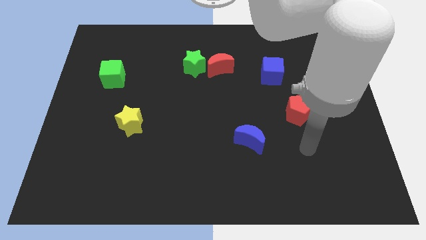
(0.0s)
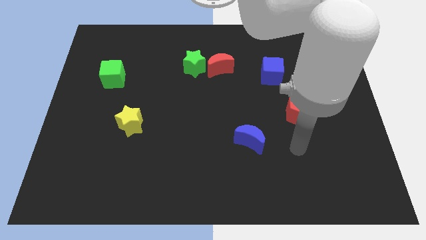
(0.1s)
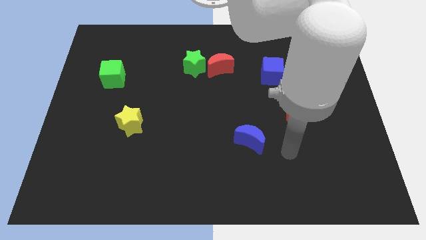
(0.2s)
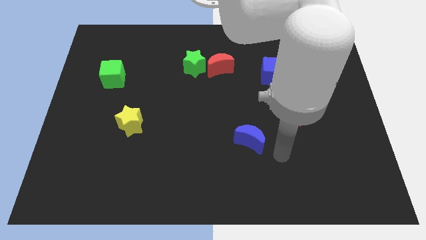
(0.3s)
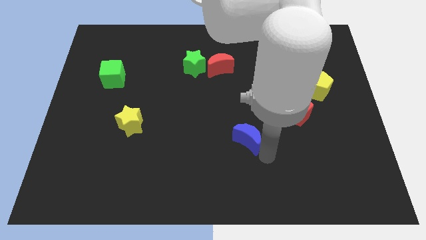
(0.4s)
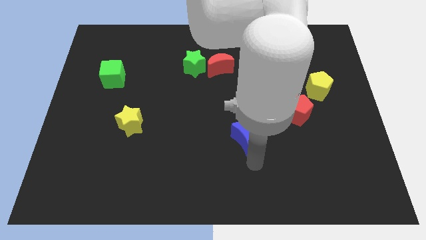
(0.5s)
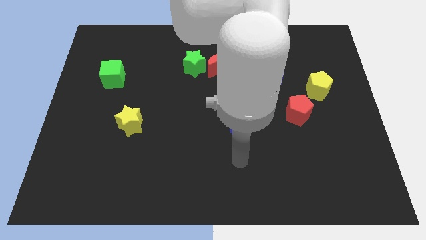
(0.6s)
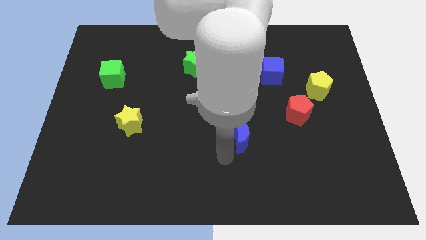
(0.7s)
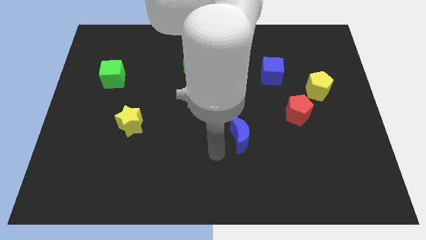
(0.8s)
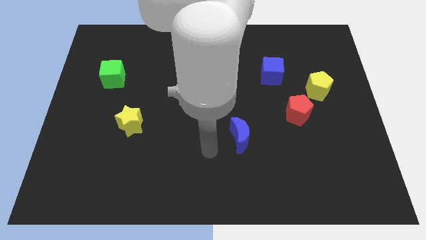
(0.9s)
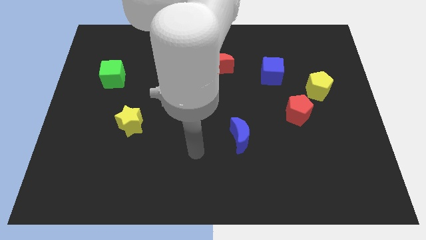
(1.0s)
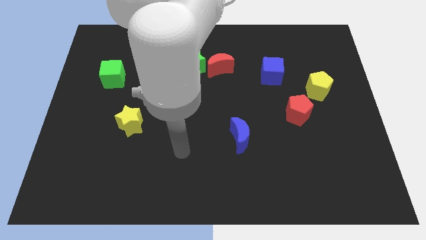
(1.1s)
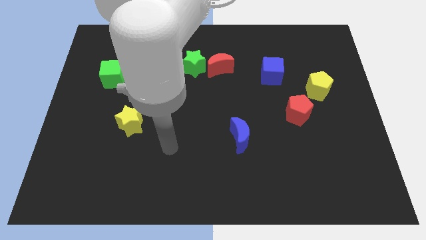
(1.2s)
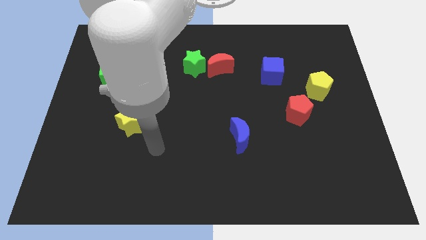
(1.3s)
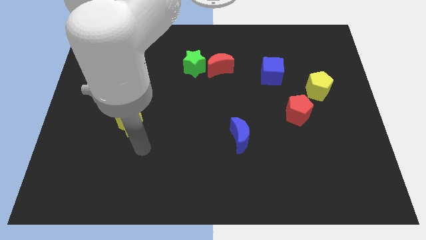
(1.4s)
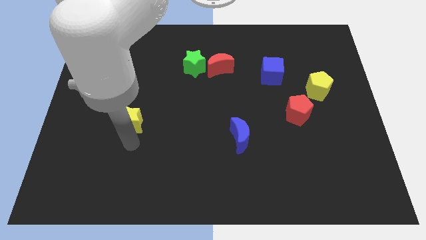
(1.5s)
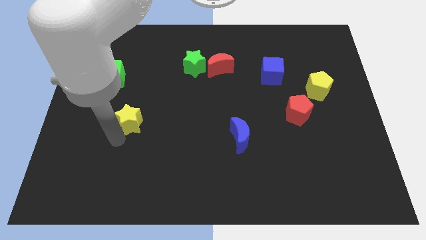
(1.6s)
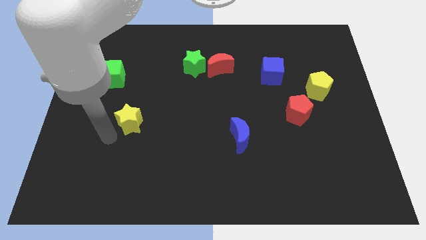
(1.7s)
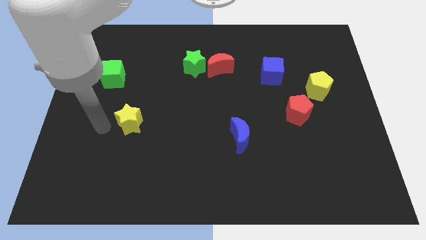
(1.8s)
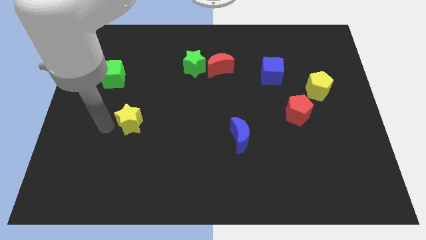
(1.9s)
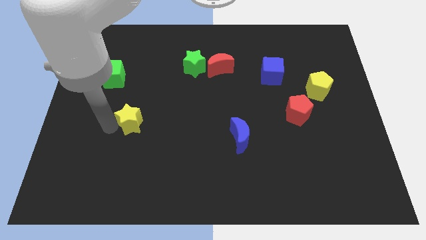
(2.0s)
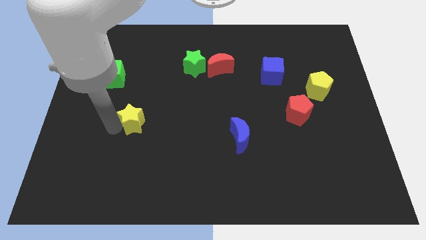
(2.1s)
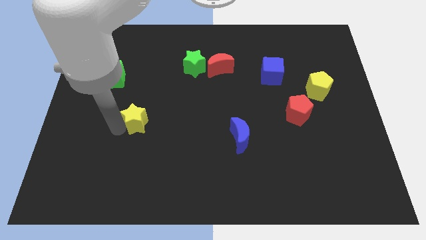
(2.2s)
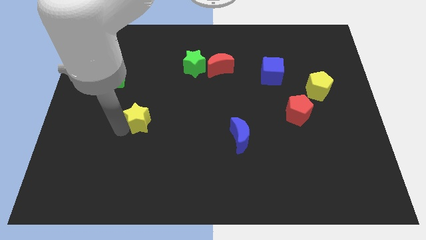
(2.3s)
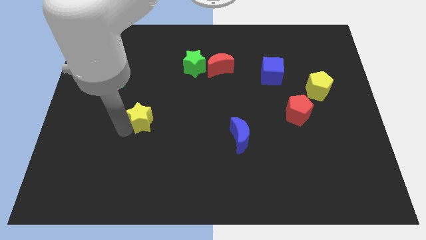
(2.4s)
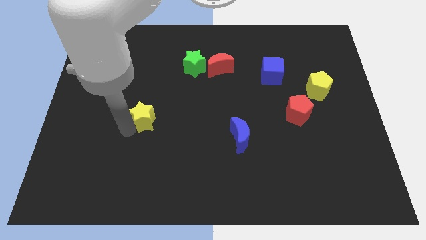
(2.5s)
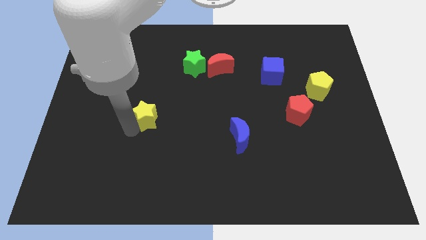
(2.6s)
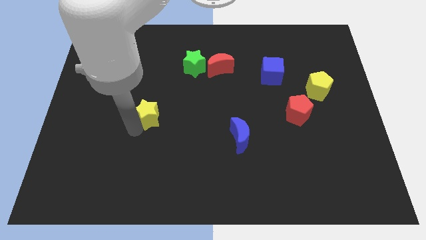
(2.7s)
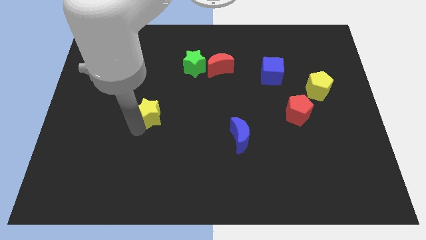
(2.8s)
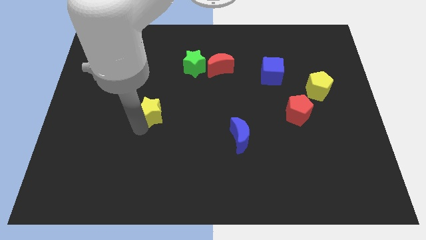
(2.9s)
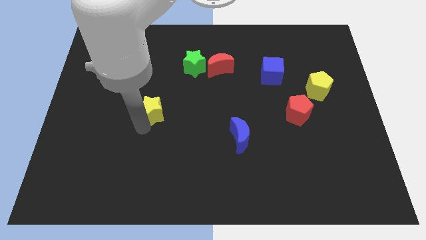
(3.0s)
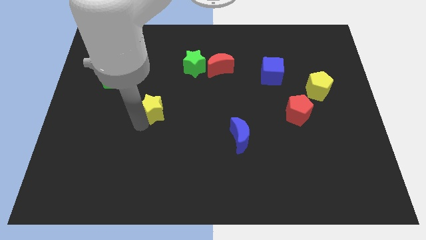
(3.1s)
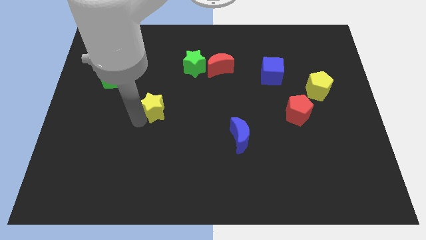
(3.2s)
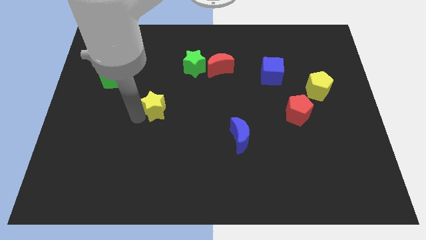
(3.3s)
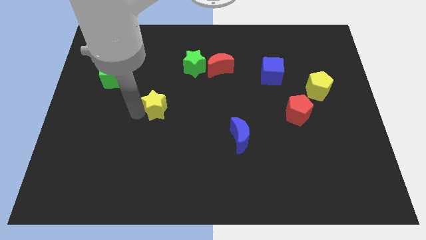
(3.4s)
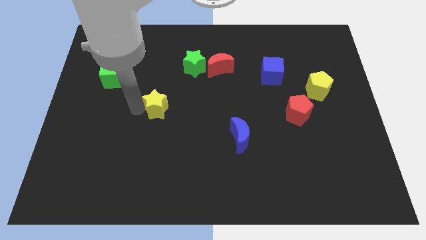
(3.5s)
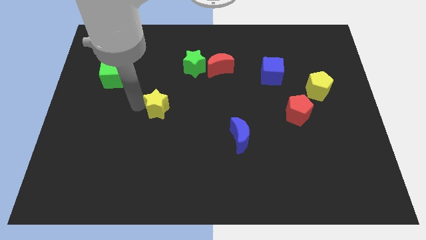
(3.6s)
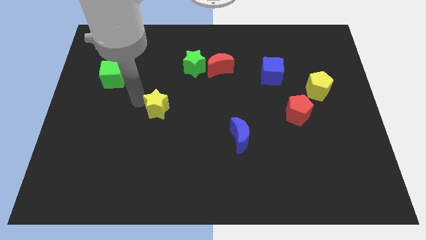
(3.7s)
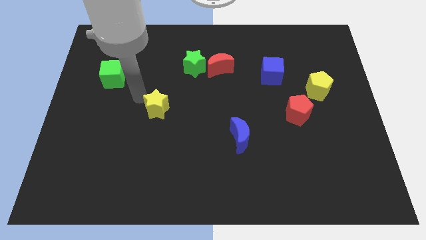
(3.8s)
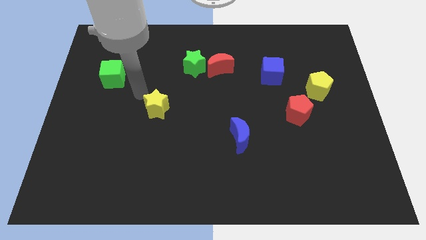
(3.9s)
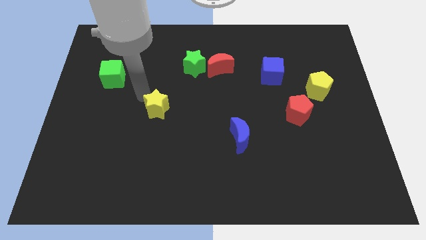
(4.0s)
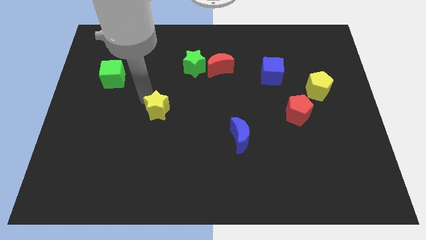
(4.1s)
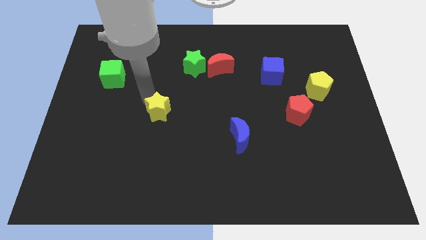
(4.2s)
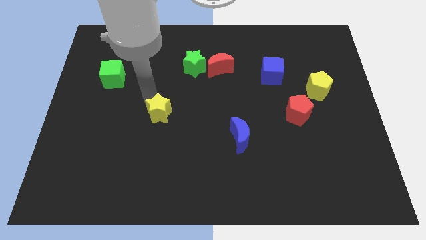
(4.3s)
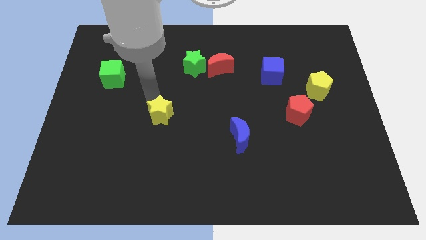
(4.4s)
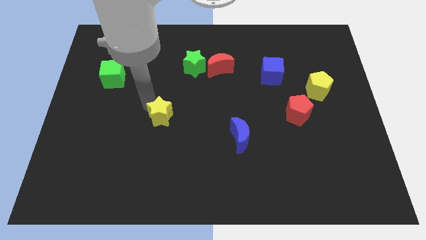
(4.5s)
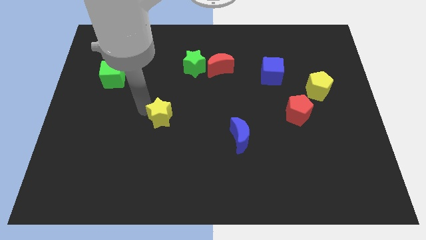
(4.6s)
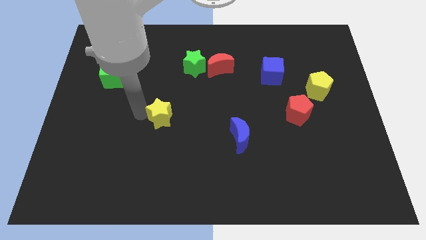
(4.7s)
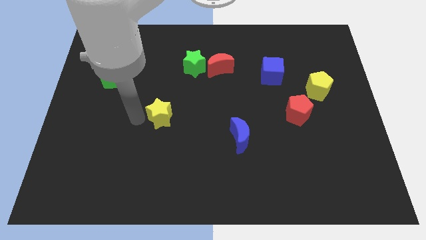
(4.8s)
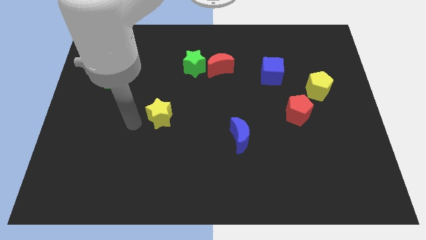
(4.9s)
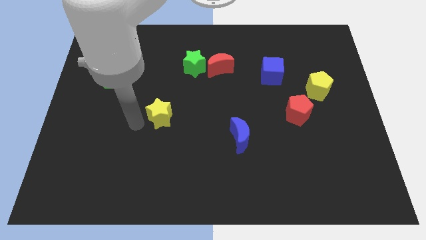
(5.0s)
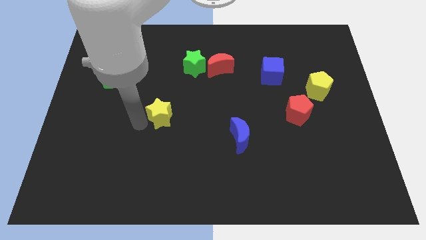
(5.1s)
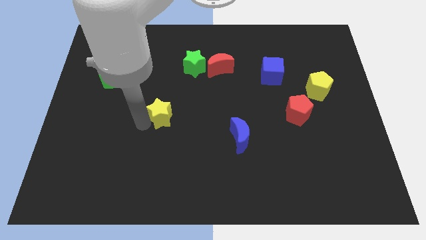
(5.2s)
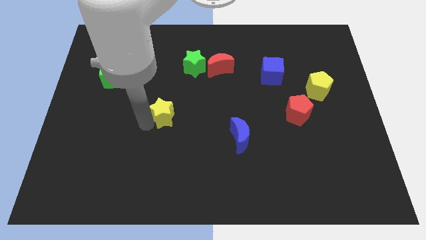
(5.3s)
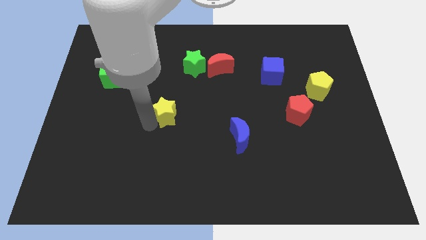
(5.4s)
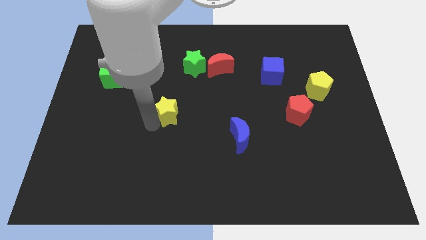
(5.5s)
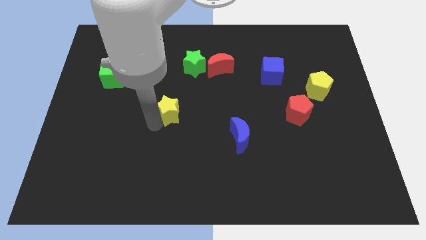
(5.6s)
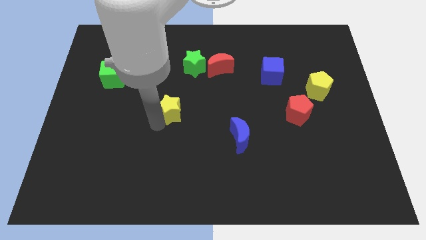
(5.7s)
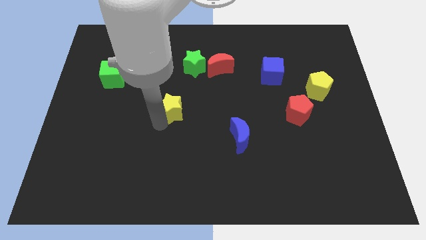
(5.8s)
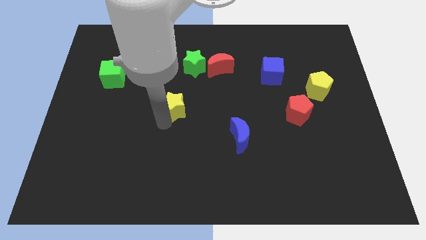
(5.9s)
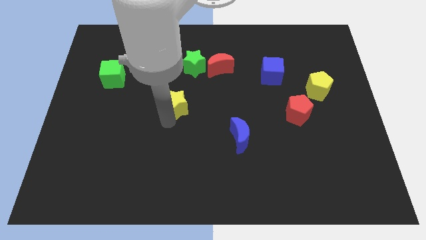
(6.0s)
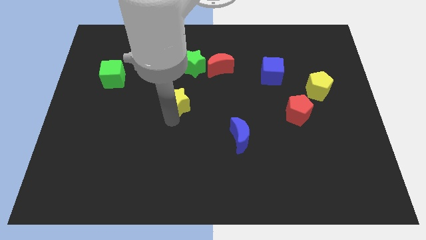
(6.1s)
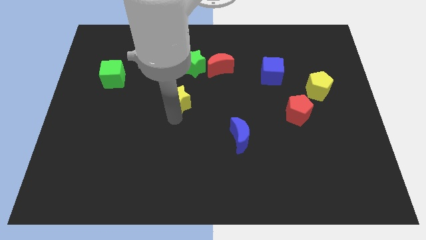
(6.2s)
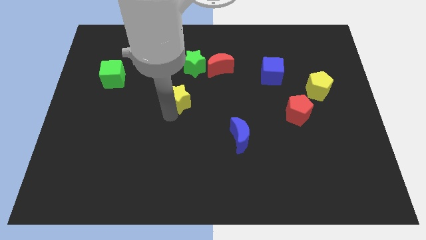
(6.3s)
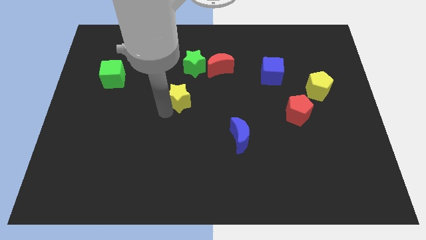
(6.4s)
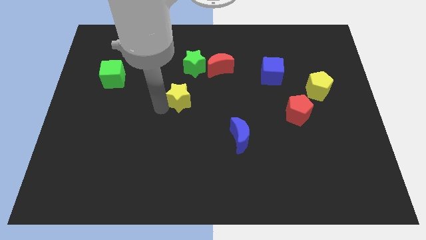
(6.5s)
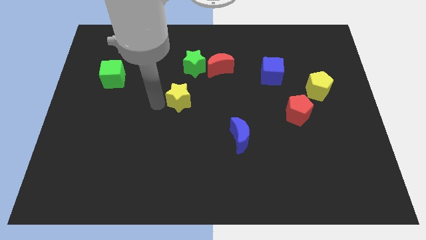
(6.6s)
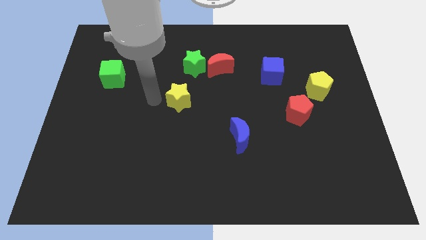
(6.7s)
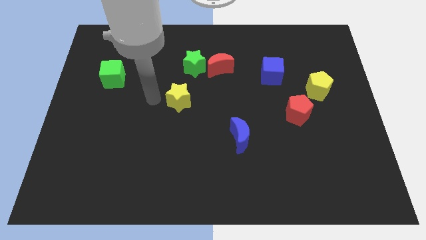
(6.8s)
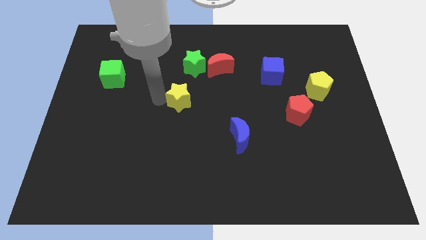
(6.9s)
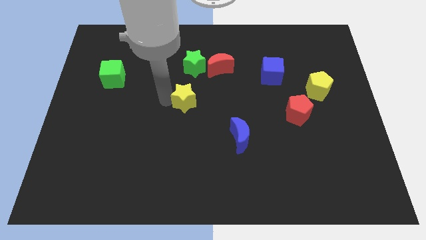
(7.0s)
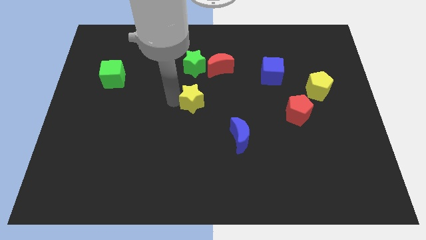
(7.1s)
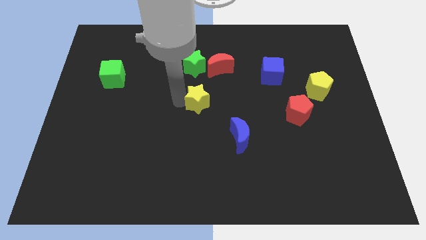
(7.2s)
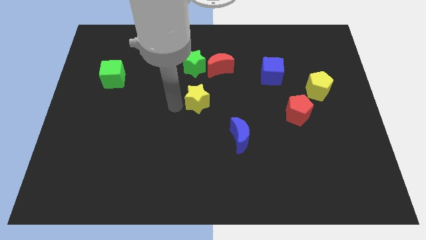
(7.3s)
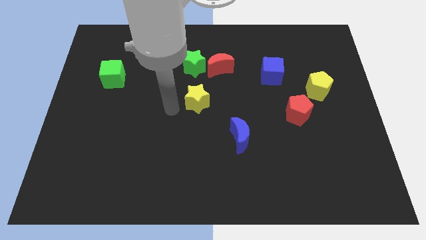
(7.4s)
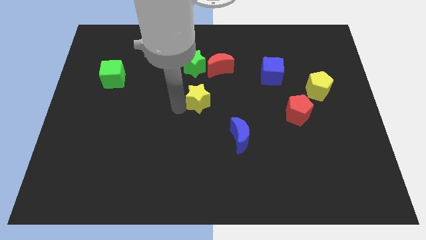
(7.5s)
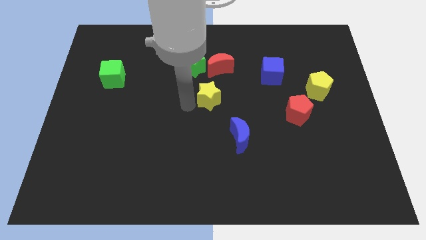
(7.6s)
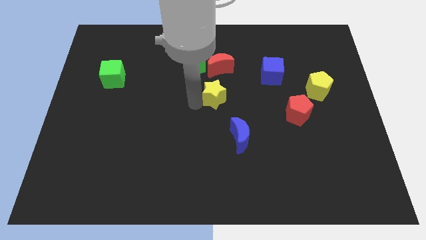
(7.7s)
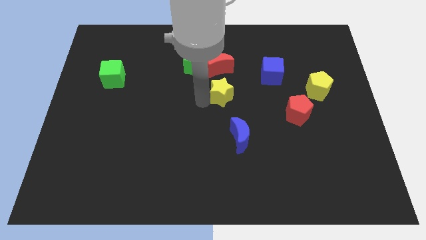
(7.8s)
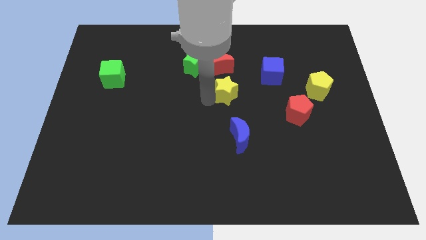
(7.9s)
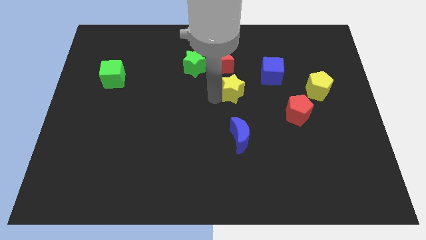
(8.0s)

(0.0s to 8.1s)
move the yellow star to the bottom left of the blue cube
